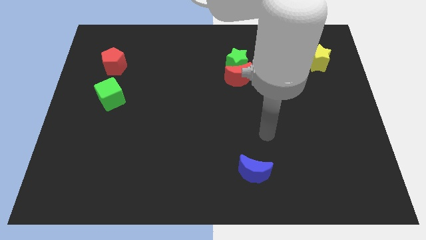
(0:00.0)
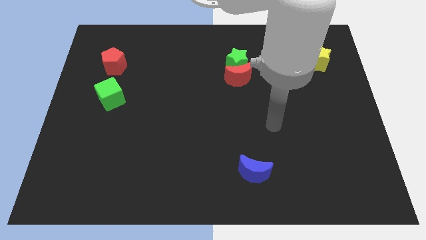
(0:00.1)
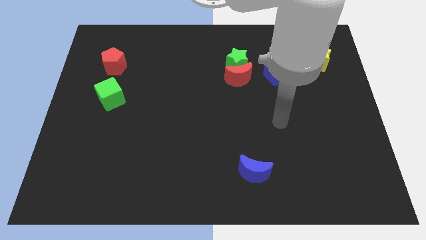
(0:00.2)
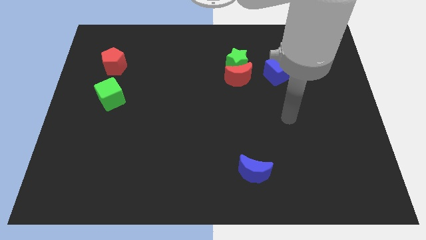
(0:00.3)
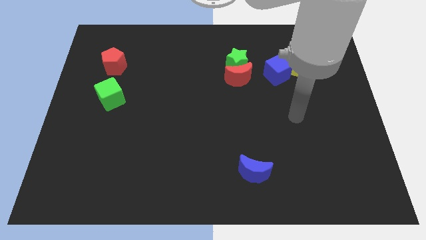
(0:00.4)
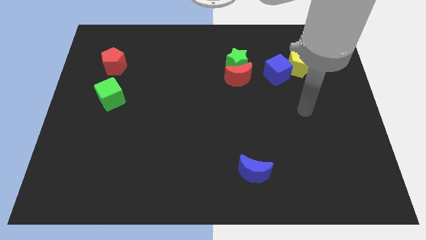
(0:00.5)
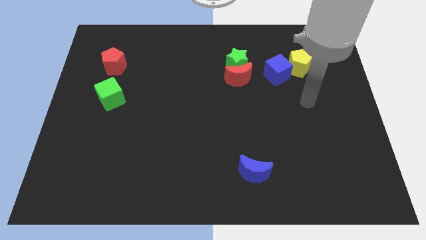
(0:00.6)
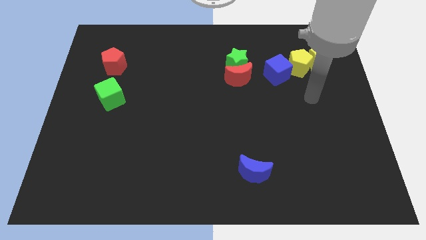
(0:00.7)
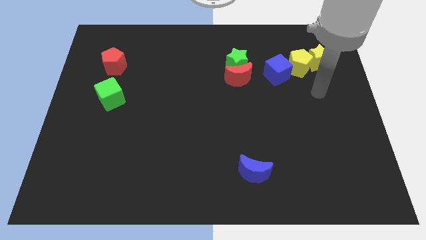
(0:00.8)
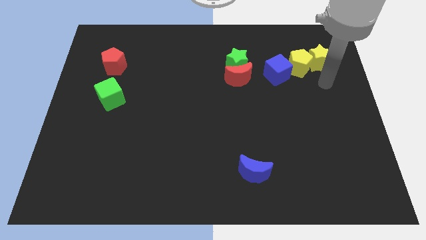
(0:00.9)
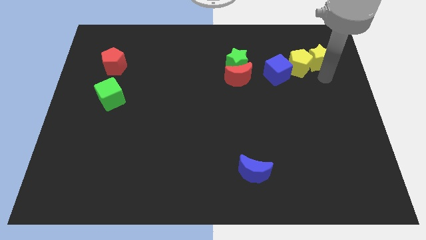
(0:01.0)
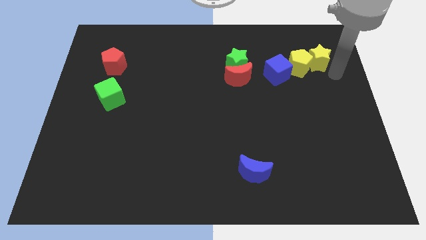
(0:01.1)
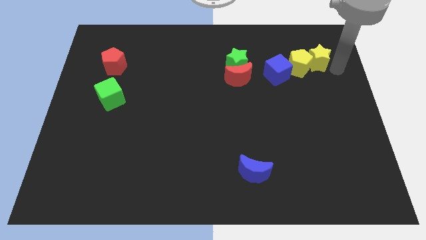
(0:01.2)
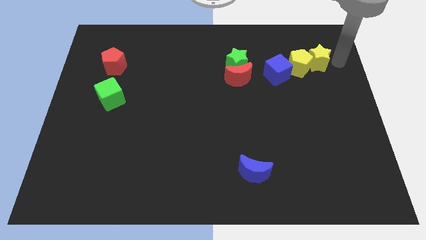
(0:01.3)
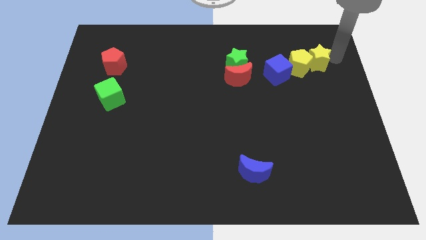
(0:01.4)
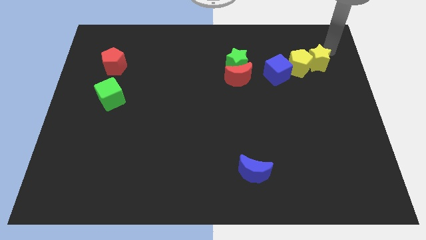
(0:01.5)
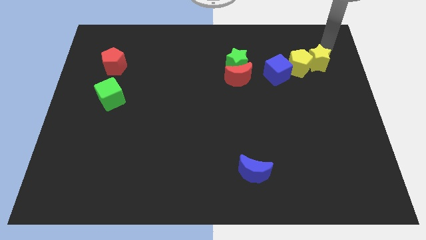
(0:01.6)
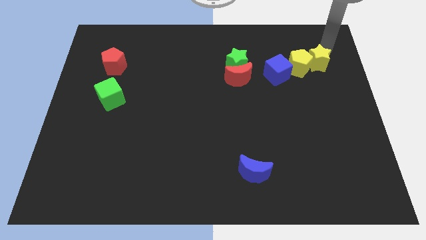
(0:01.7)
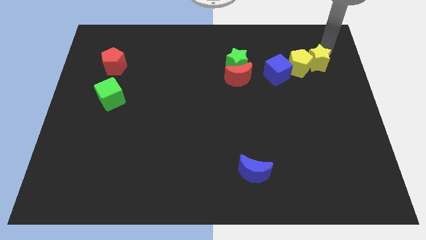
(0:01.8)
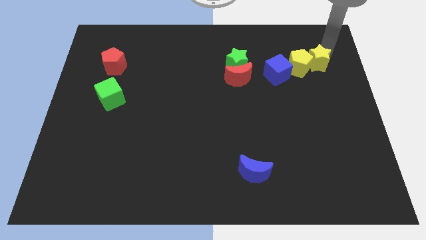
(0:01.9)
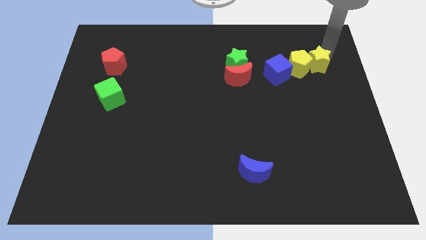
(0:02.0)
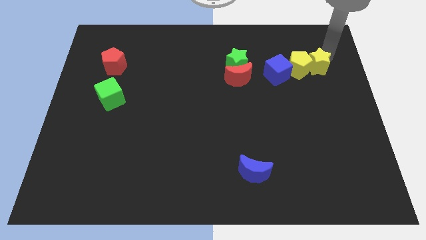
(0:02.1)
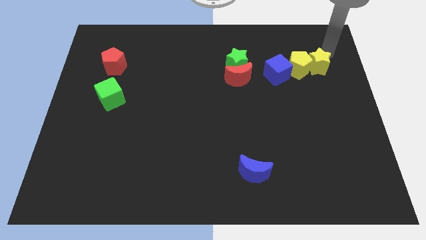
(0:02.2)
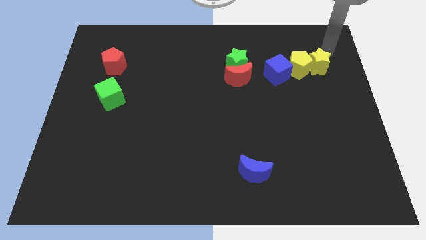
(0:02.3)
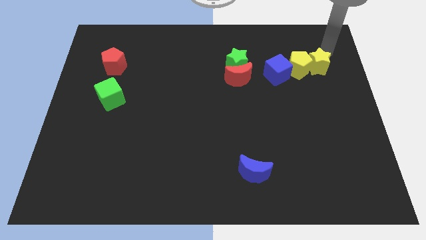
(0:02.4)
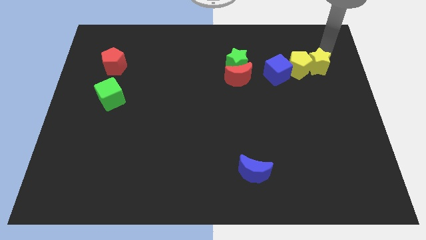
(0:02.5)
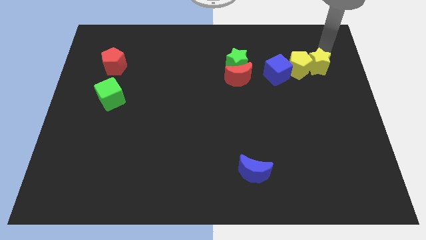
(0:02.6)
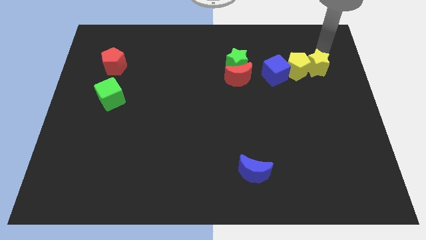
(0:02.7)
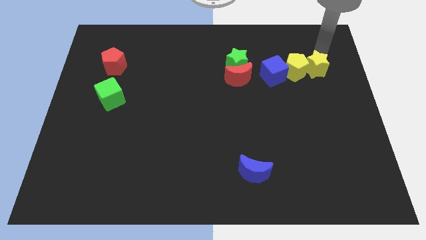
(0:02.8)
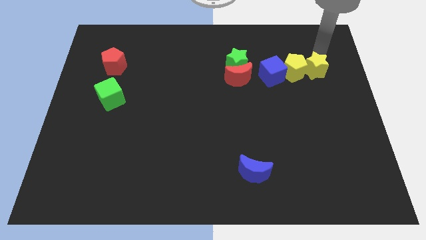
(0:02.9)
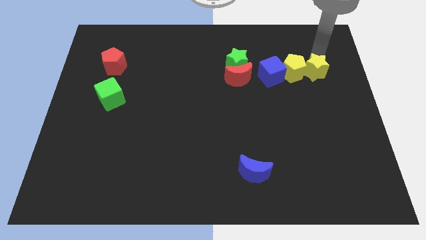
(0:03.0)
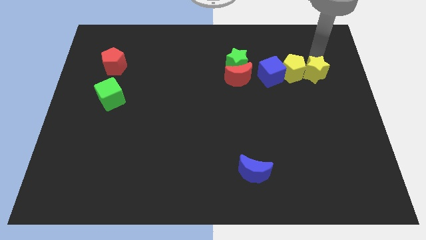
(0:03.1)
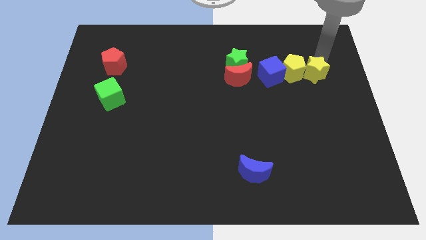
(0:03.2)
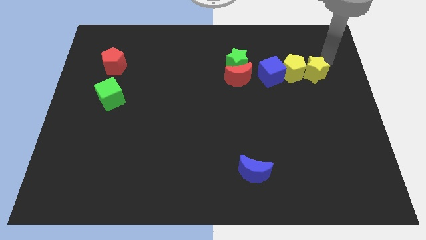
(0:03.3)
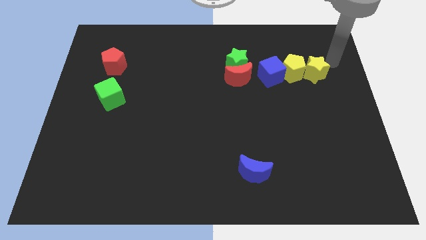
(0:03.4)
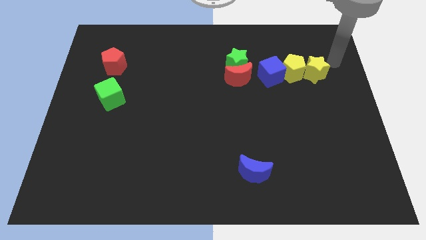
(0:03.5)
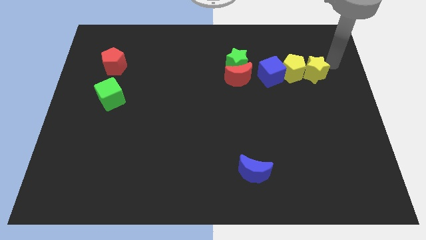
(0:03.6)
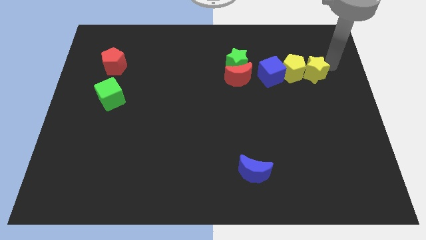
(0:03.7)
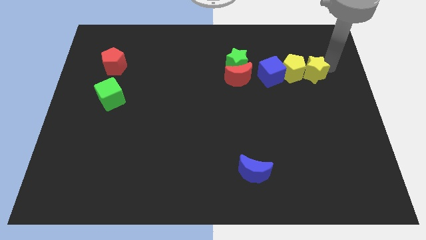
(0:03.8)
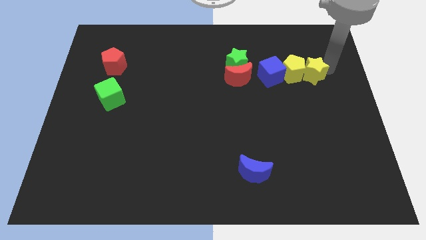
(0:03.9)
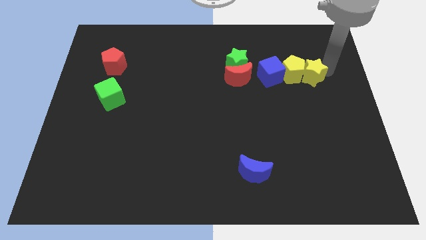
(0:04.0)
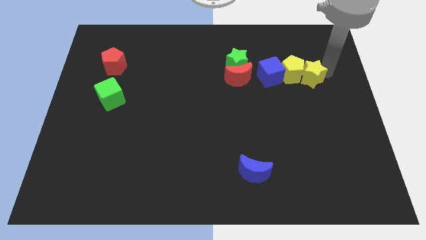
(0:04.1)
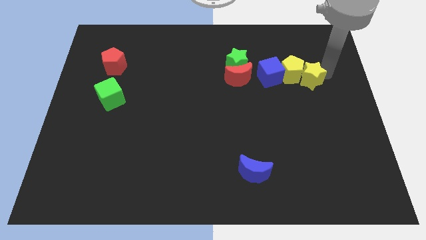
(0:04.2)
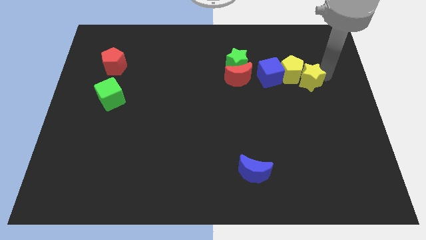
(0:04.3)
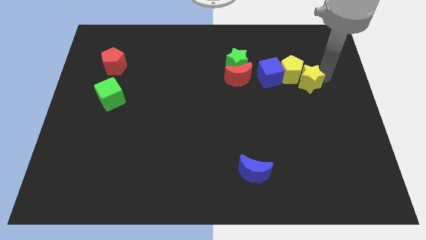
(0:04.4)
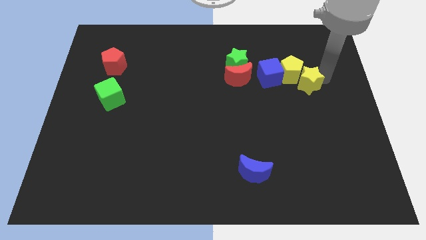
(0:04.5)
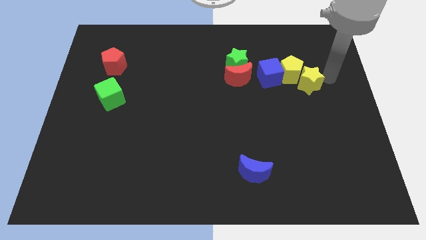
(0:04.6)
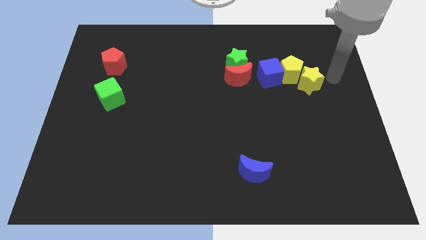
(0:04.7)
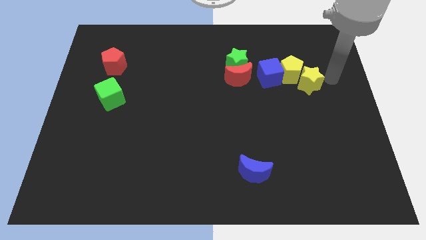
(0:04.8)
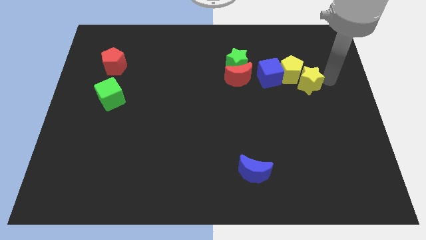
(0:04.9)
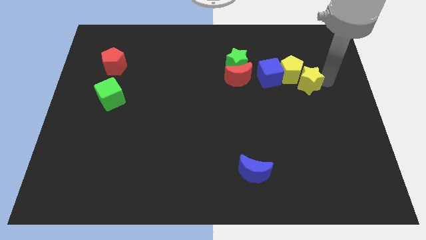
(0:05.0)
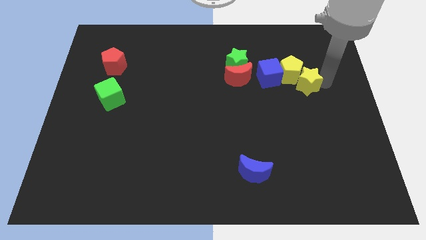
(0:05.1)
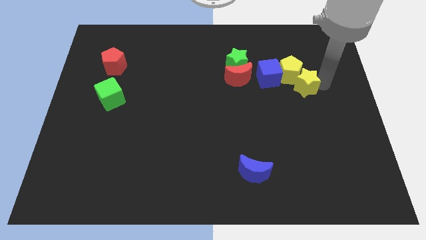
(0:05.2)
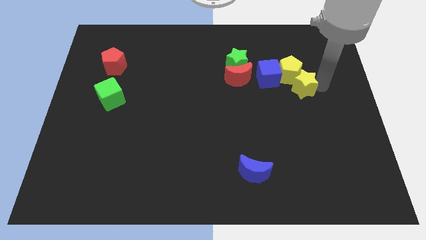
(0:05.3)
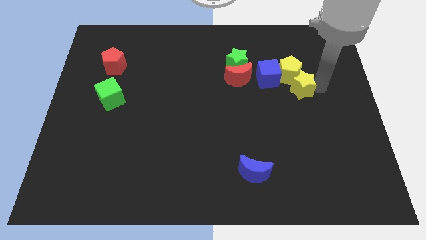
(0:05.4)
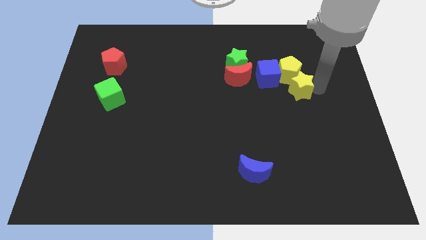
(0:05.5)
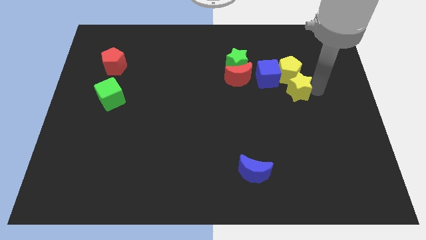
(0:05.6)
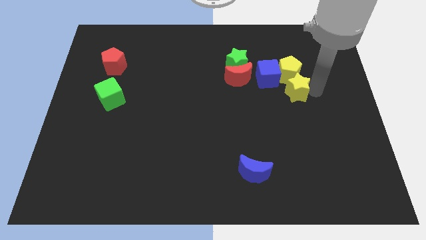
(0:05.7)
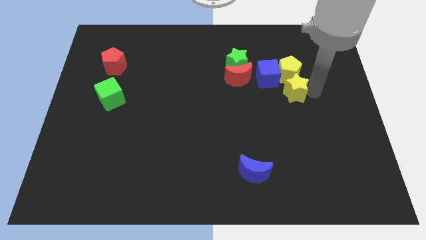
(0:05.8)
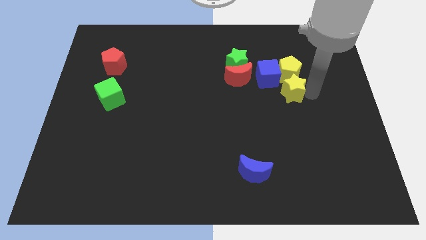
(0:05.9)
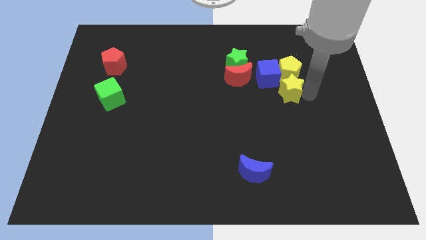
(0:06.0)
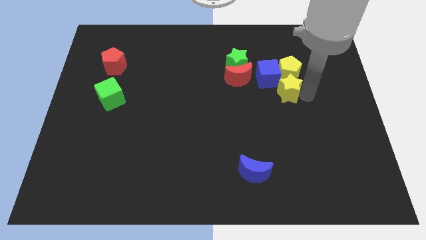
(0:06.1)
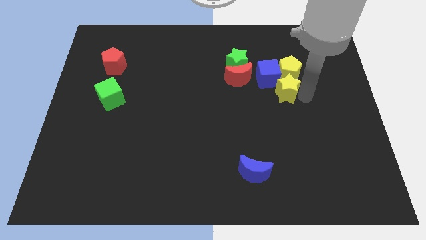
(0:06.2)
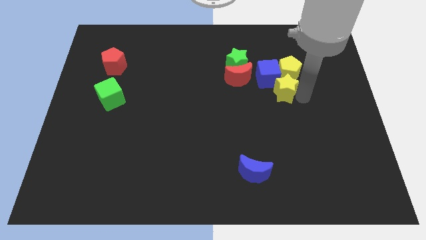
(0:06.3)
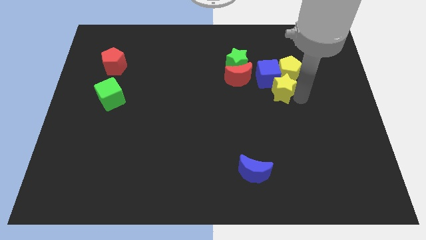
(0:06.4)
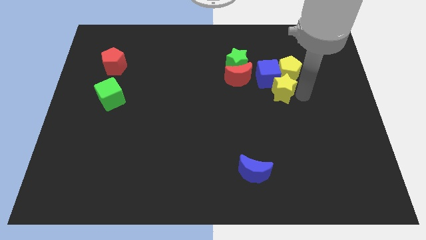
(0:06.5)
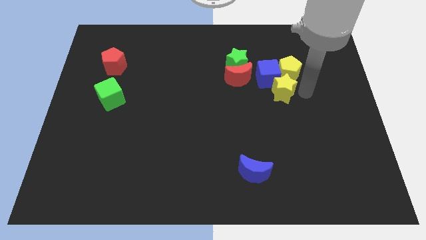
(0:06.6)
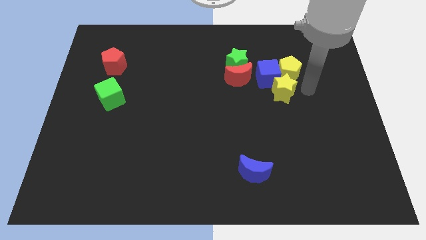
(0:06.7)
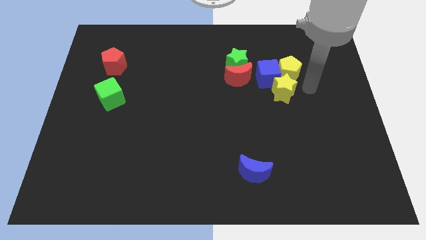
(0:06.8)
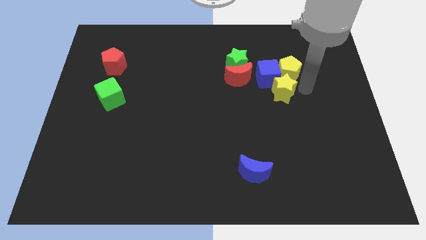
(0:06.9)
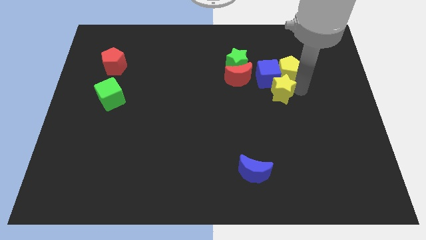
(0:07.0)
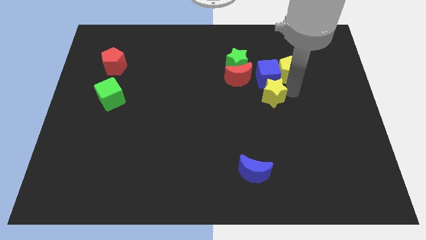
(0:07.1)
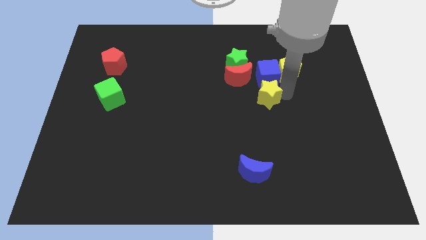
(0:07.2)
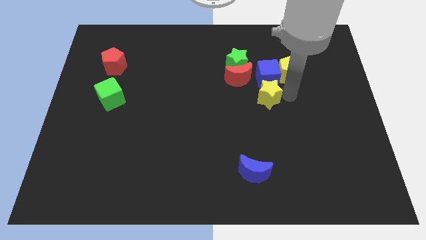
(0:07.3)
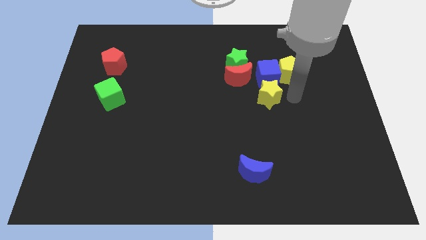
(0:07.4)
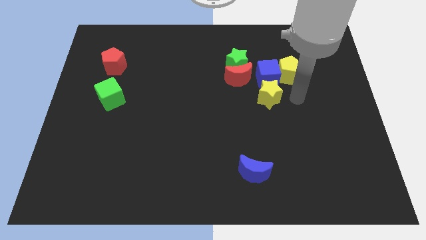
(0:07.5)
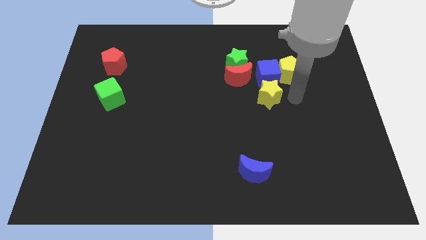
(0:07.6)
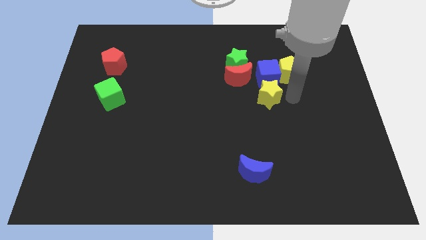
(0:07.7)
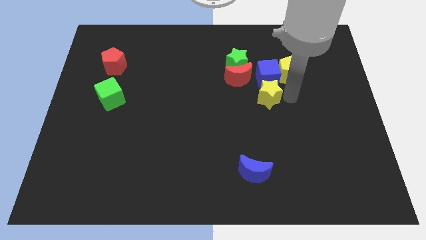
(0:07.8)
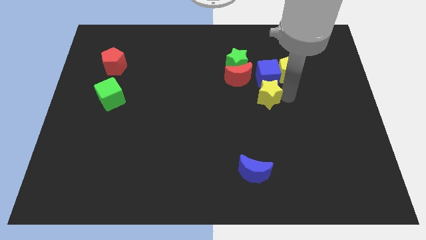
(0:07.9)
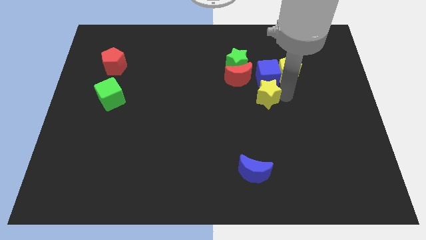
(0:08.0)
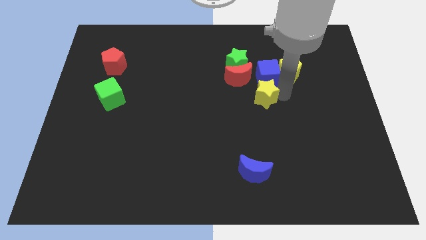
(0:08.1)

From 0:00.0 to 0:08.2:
put the yellow star to the middle of the board
